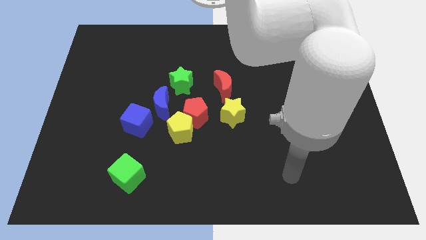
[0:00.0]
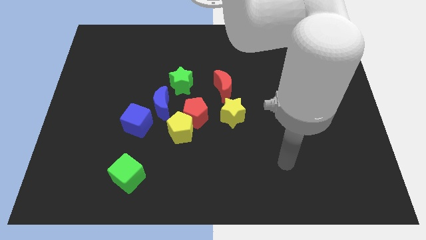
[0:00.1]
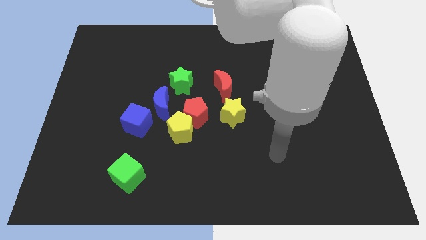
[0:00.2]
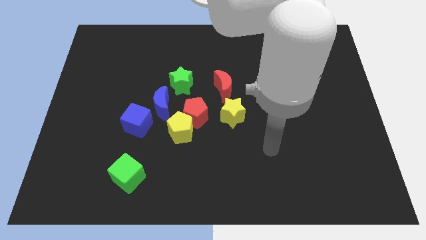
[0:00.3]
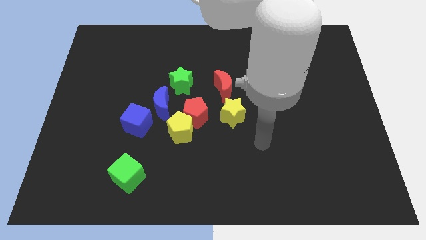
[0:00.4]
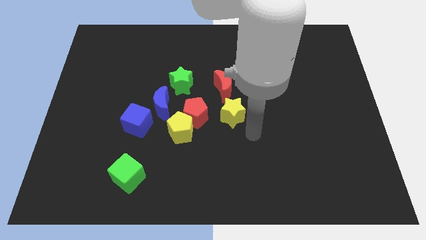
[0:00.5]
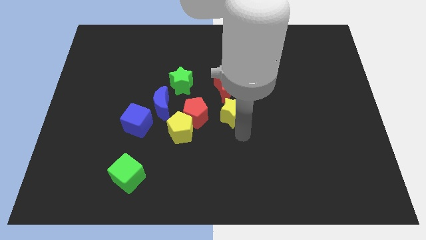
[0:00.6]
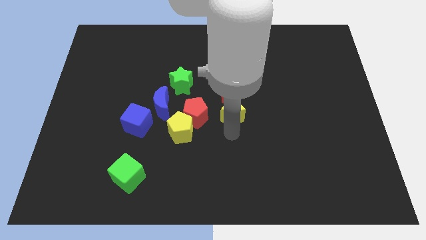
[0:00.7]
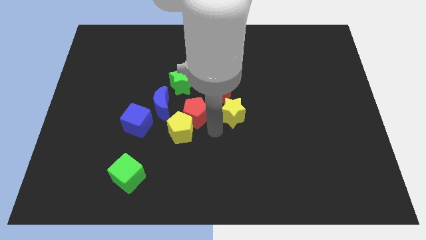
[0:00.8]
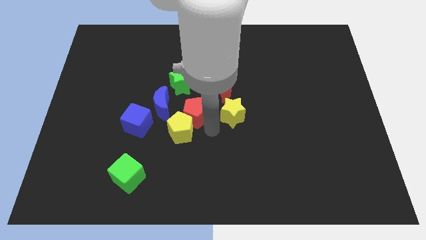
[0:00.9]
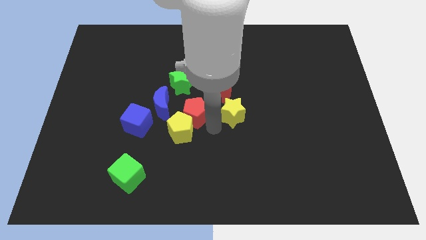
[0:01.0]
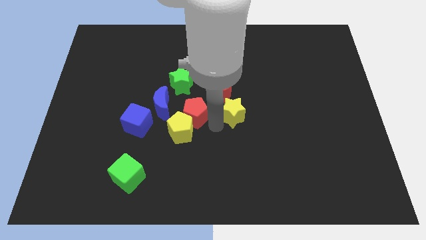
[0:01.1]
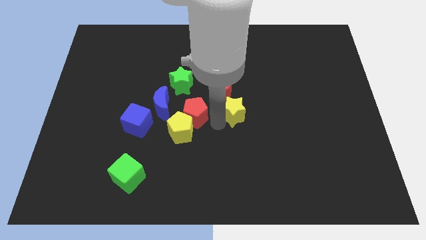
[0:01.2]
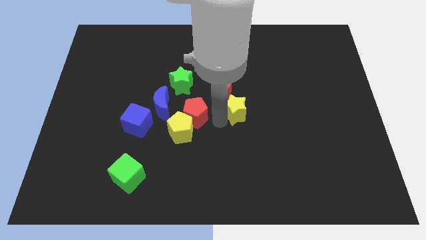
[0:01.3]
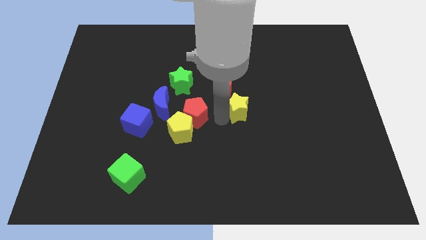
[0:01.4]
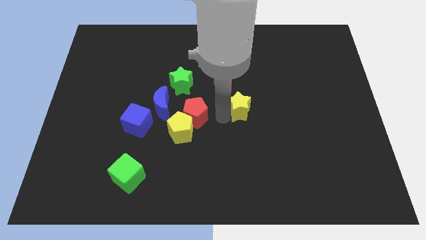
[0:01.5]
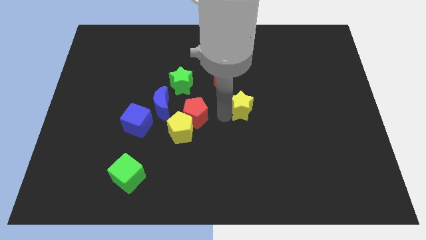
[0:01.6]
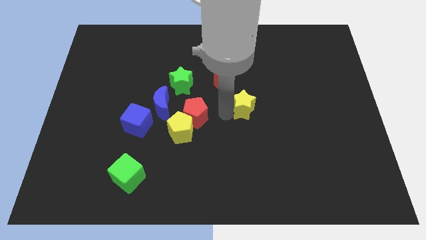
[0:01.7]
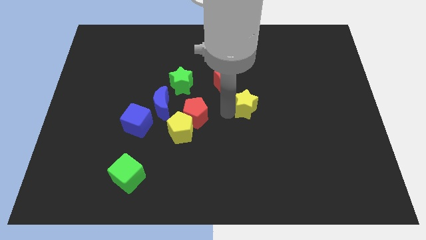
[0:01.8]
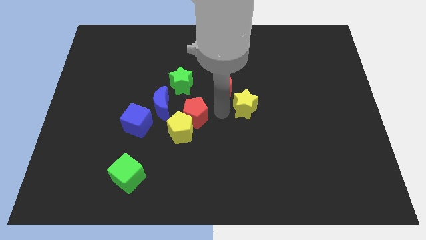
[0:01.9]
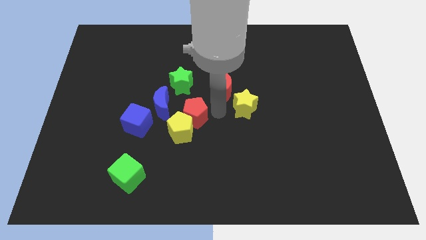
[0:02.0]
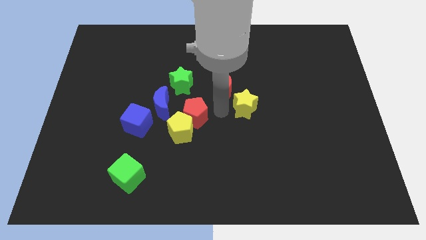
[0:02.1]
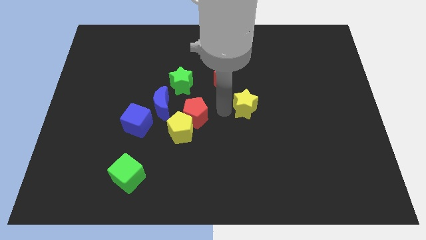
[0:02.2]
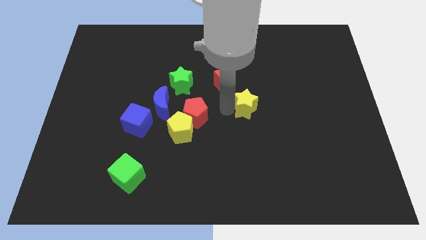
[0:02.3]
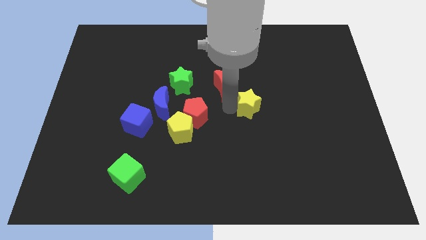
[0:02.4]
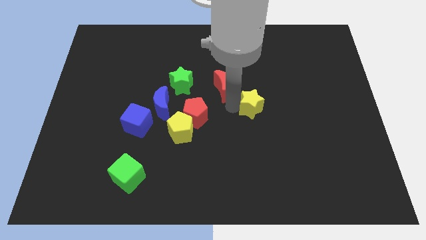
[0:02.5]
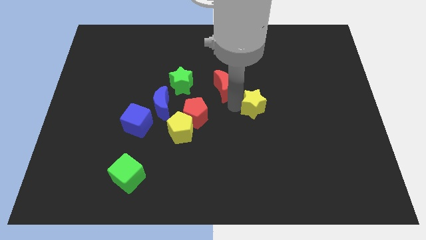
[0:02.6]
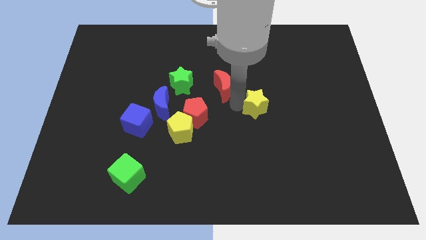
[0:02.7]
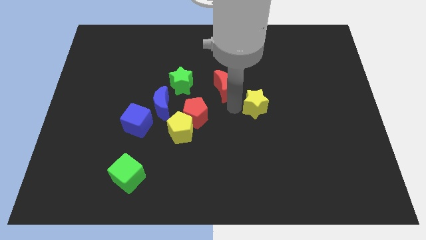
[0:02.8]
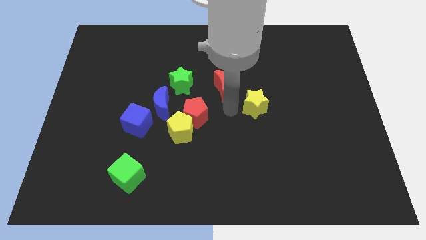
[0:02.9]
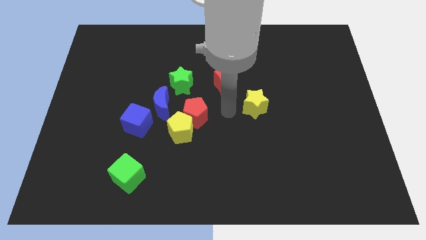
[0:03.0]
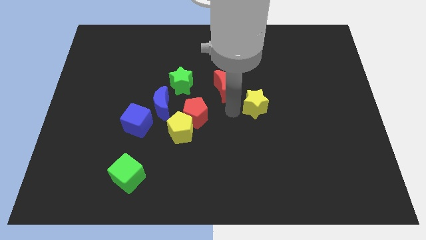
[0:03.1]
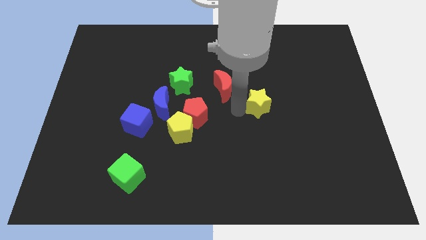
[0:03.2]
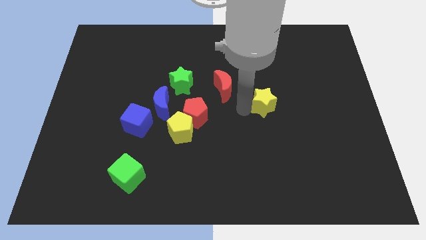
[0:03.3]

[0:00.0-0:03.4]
move the yellow star to the right a bit

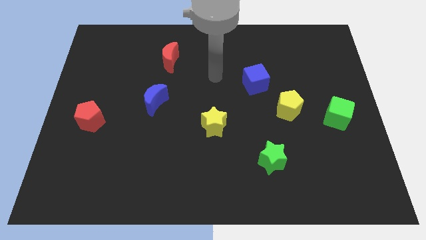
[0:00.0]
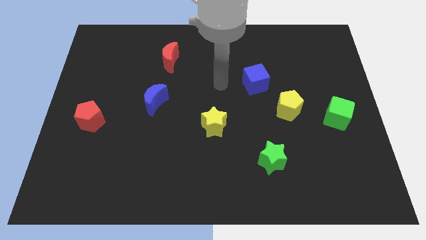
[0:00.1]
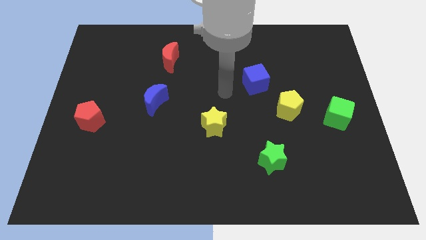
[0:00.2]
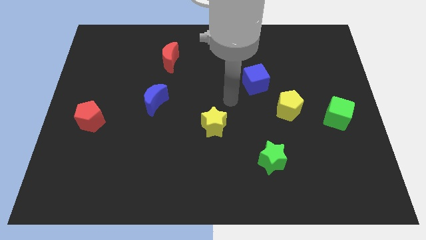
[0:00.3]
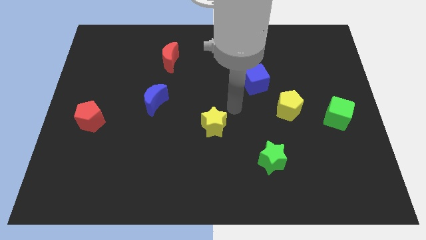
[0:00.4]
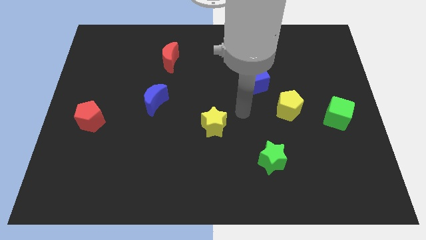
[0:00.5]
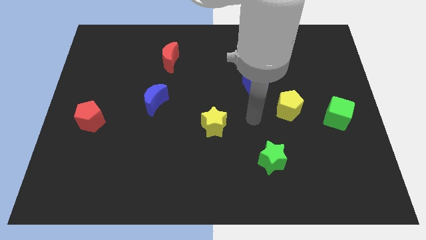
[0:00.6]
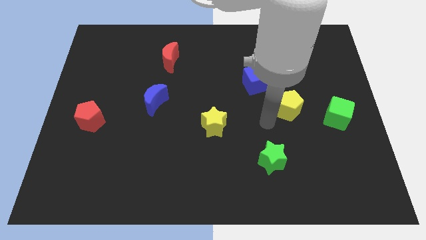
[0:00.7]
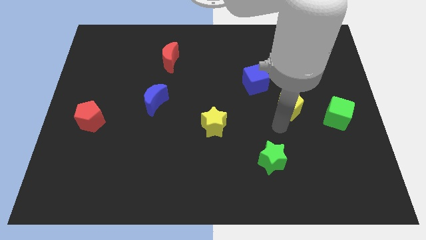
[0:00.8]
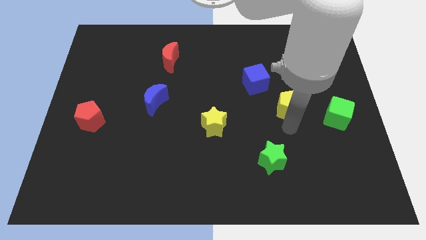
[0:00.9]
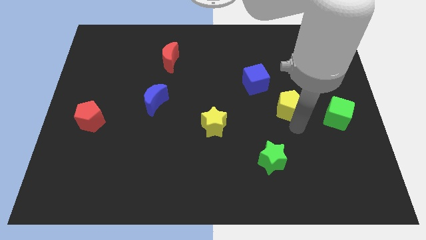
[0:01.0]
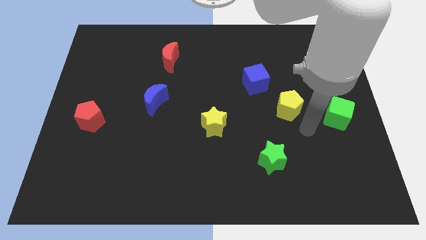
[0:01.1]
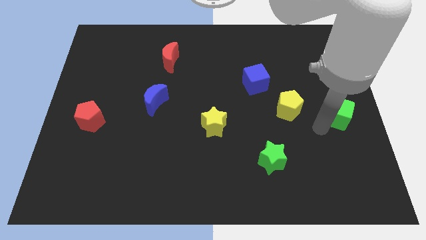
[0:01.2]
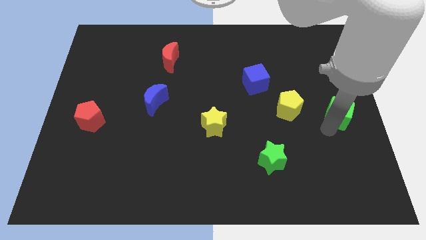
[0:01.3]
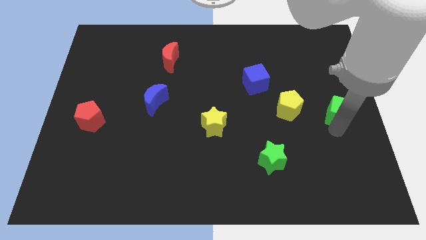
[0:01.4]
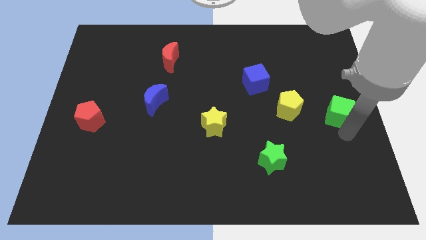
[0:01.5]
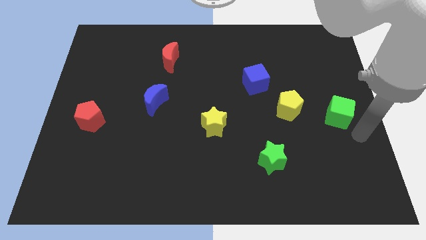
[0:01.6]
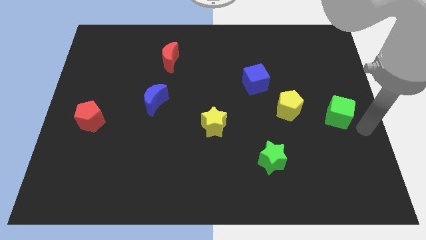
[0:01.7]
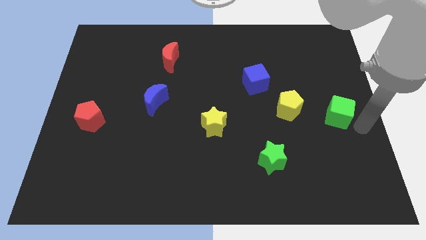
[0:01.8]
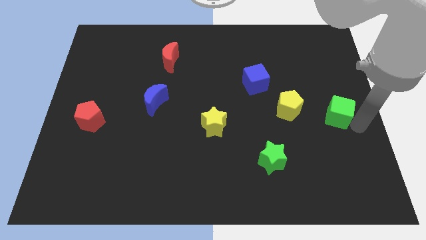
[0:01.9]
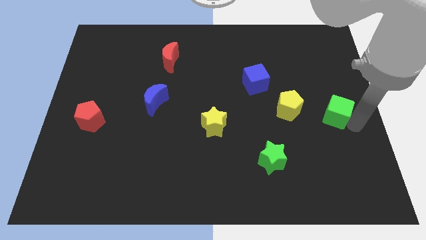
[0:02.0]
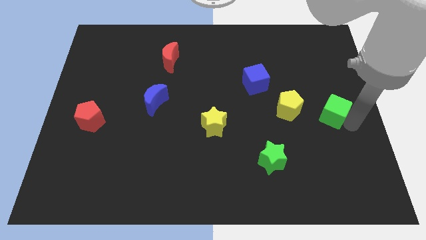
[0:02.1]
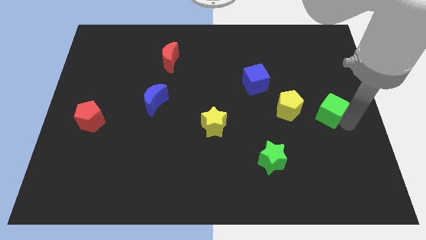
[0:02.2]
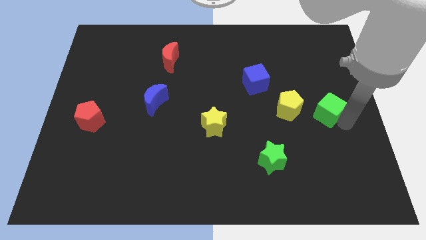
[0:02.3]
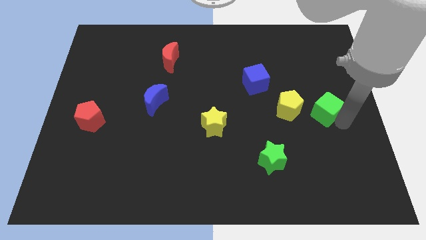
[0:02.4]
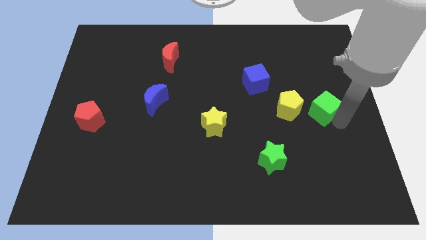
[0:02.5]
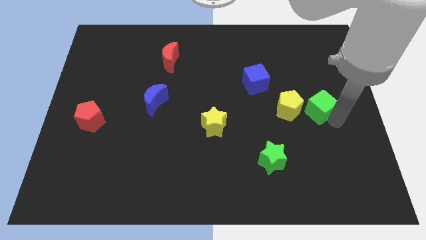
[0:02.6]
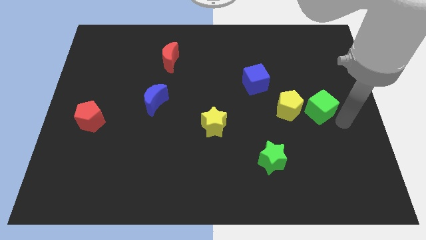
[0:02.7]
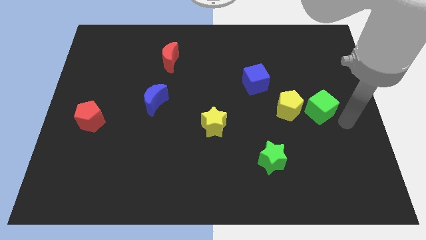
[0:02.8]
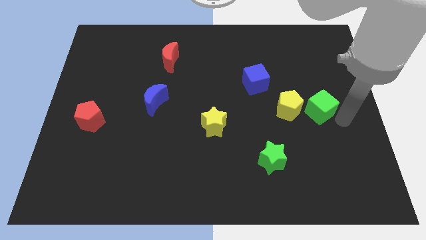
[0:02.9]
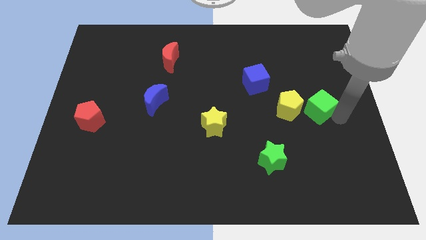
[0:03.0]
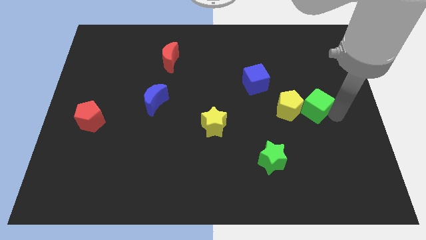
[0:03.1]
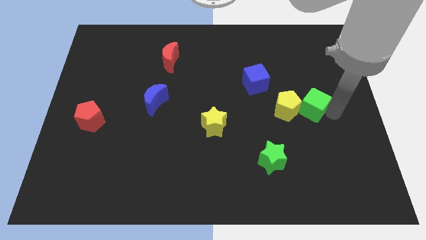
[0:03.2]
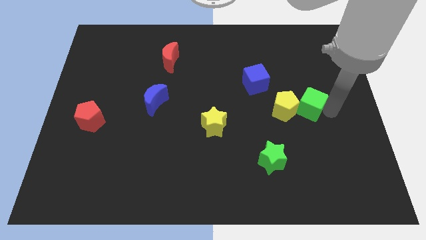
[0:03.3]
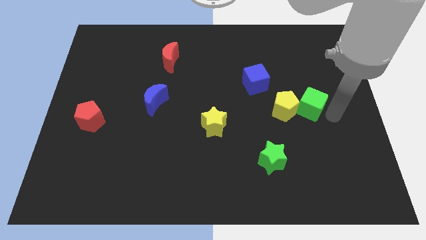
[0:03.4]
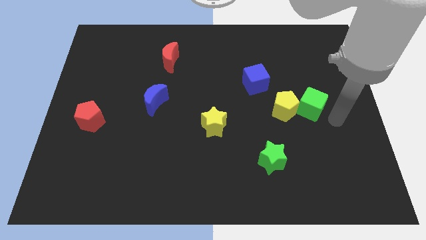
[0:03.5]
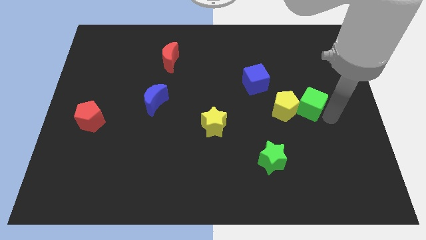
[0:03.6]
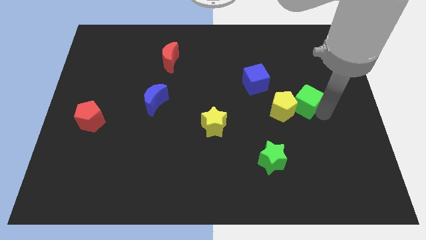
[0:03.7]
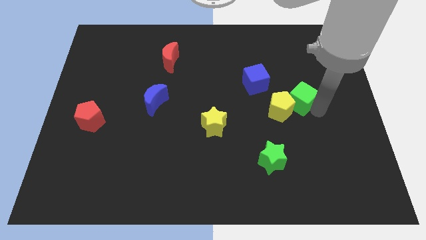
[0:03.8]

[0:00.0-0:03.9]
push the green cube left slightly

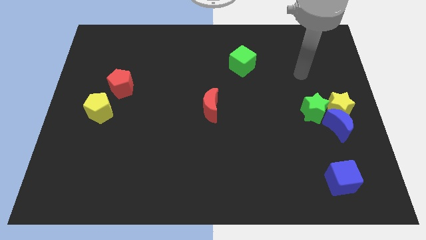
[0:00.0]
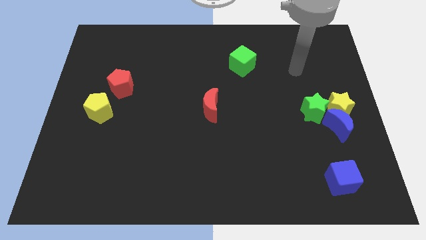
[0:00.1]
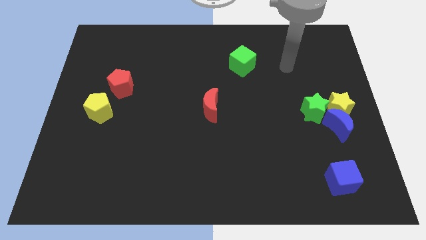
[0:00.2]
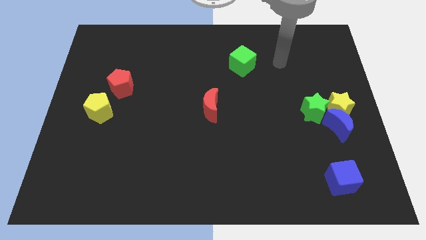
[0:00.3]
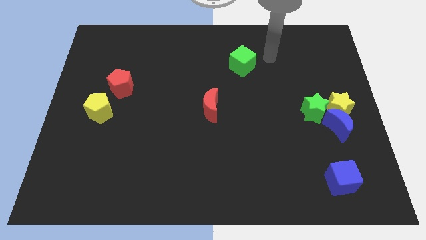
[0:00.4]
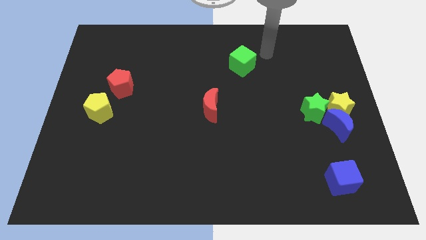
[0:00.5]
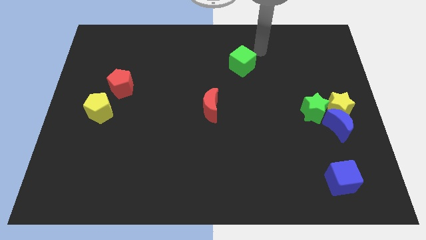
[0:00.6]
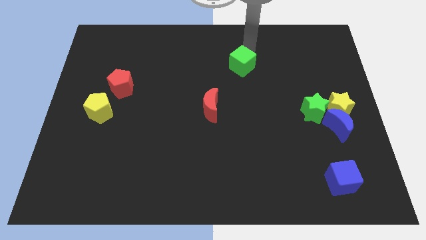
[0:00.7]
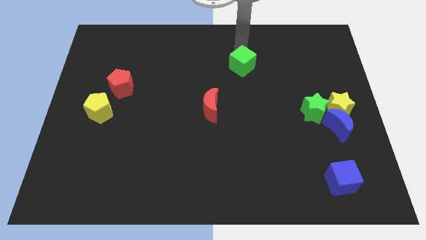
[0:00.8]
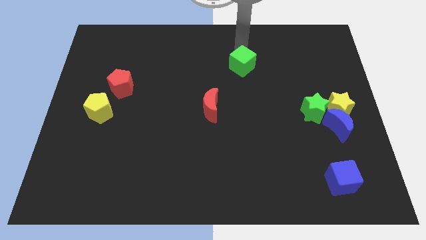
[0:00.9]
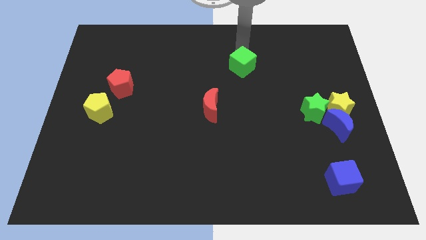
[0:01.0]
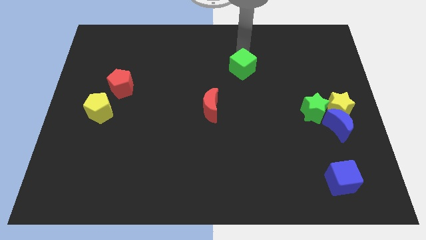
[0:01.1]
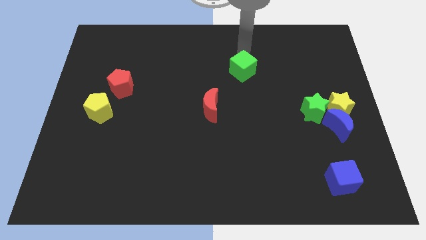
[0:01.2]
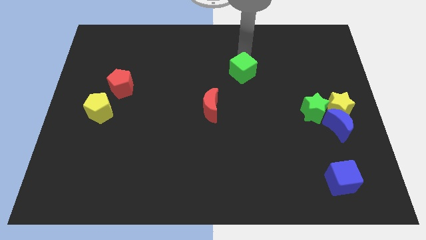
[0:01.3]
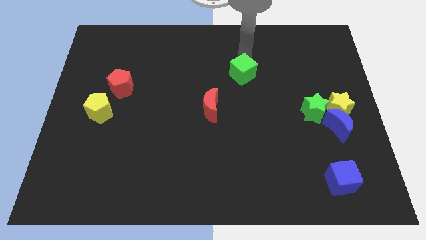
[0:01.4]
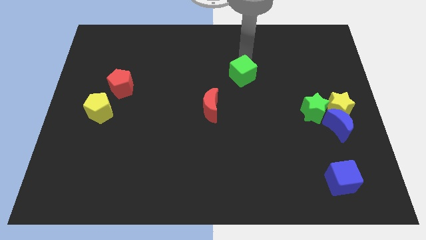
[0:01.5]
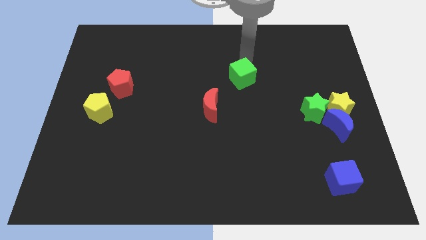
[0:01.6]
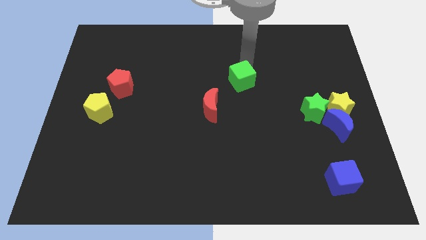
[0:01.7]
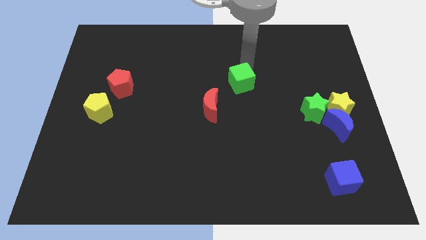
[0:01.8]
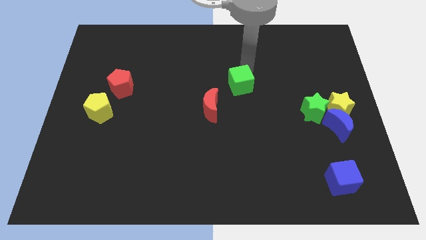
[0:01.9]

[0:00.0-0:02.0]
slide the green cube downwards a little
